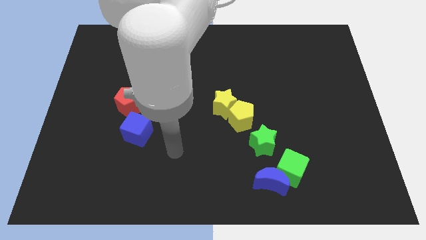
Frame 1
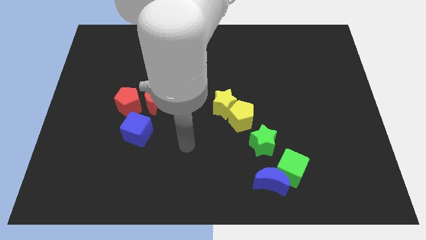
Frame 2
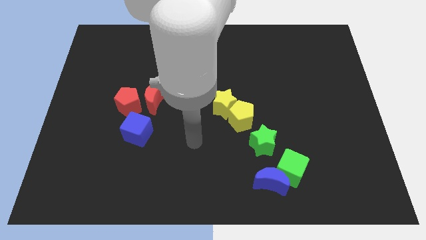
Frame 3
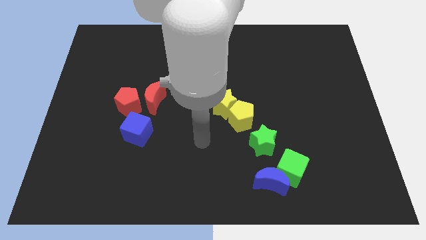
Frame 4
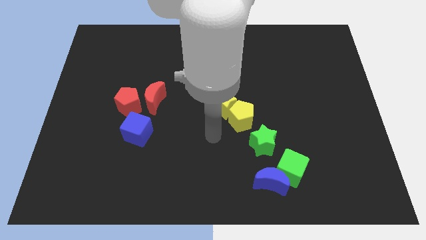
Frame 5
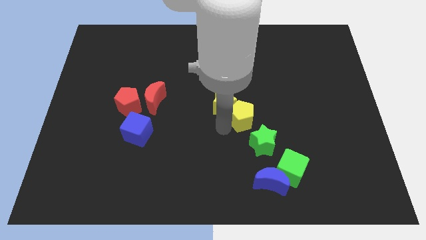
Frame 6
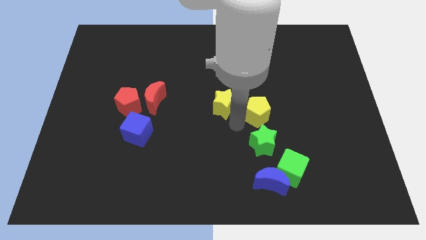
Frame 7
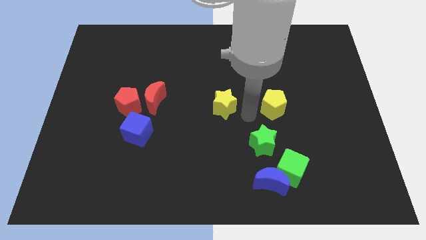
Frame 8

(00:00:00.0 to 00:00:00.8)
pull the yellow star apart from the yellow pentagon

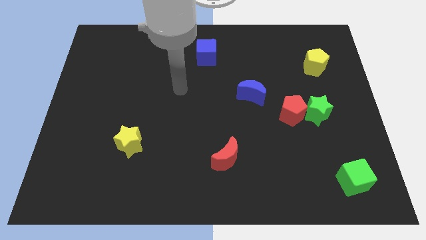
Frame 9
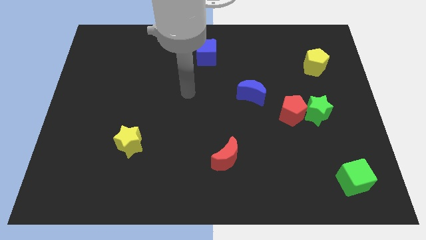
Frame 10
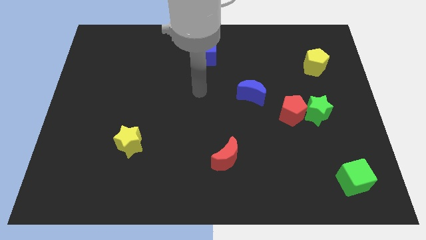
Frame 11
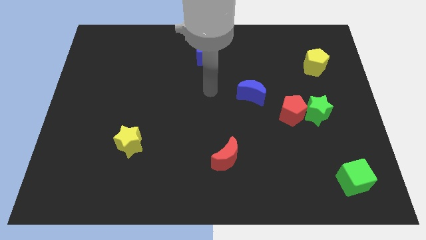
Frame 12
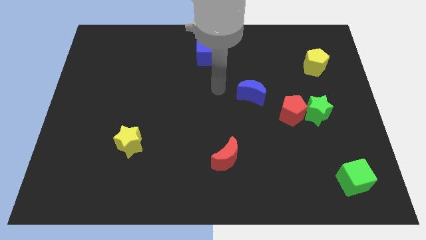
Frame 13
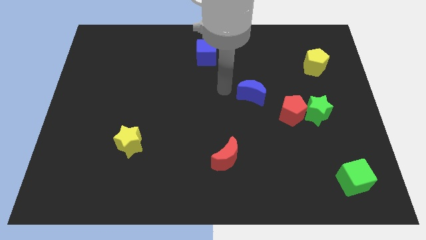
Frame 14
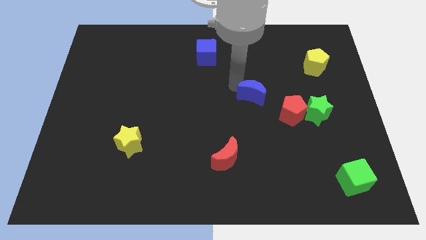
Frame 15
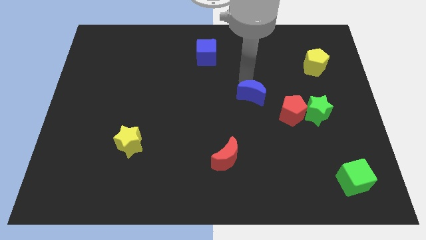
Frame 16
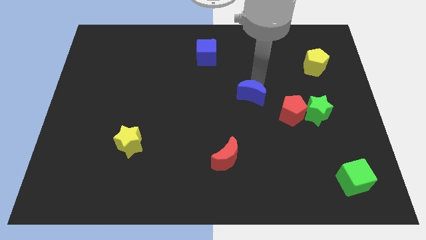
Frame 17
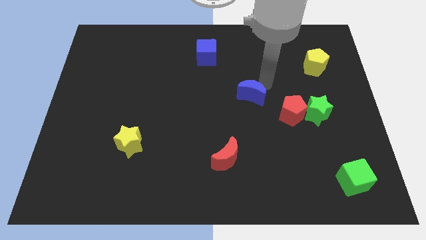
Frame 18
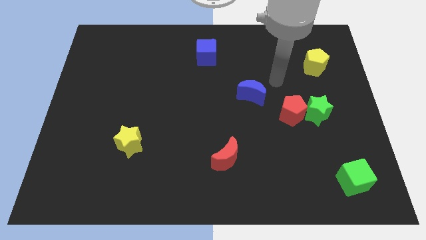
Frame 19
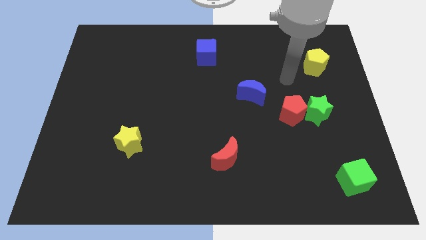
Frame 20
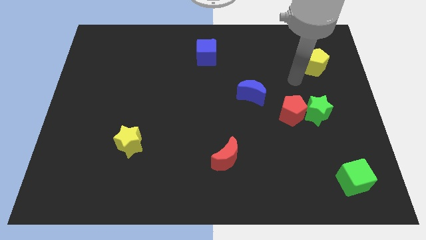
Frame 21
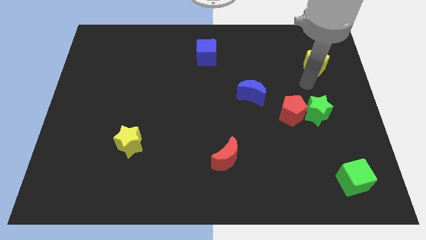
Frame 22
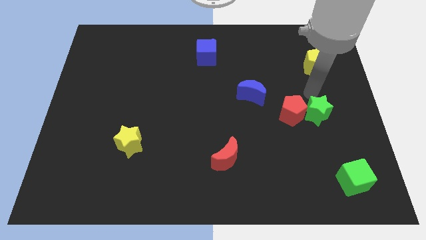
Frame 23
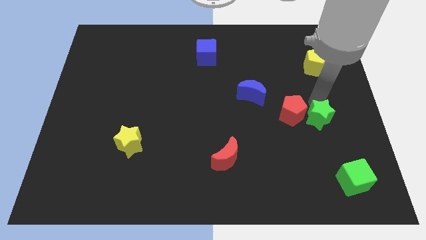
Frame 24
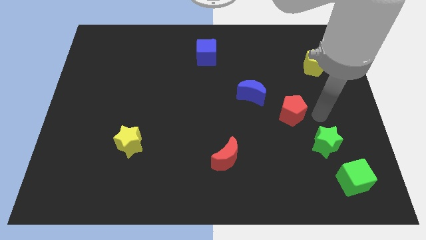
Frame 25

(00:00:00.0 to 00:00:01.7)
separate the red pentagon from the green star

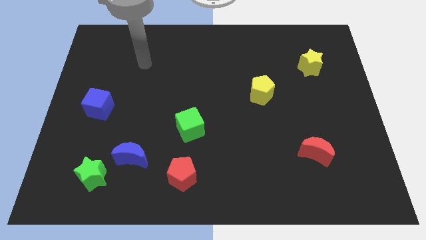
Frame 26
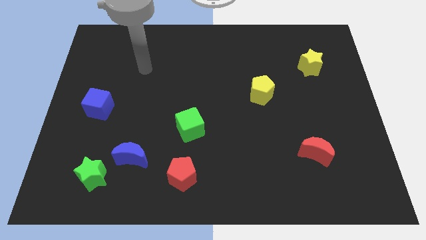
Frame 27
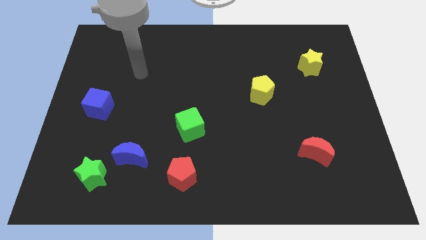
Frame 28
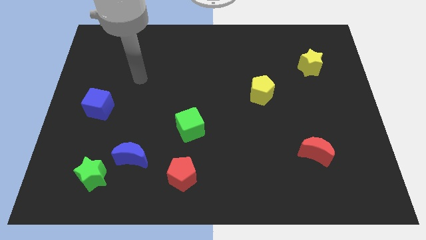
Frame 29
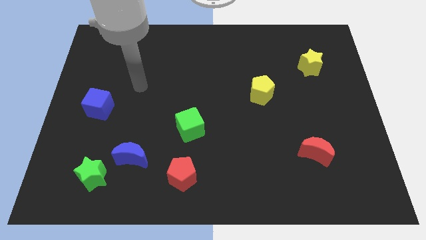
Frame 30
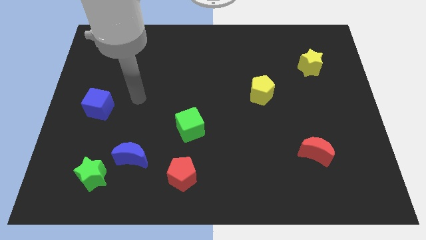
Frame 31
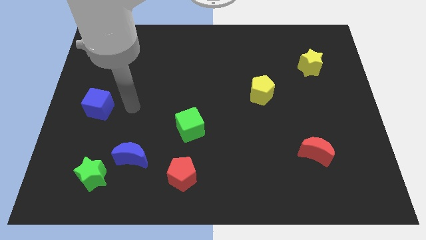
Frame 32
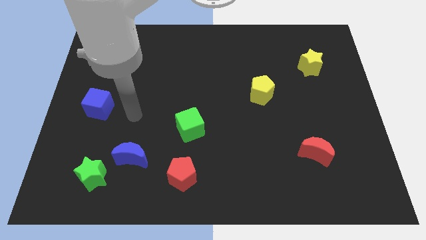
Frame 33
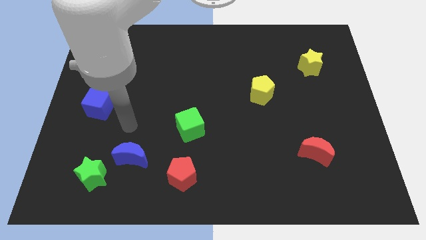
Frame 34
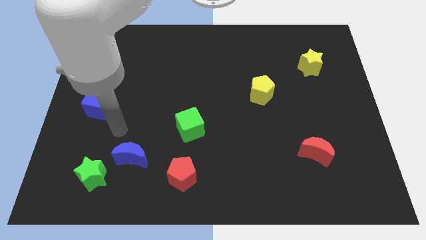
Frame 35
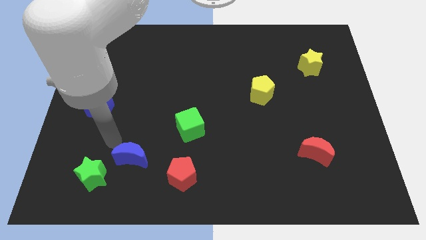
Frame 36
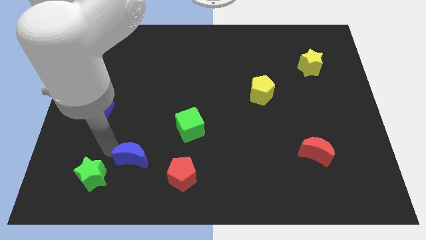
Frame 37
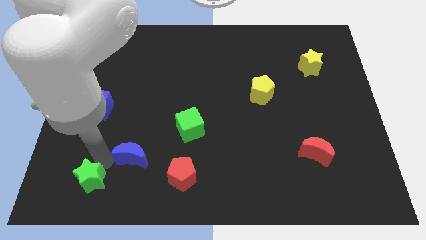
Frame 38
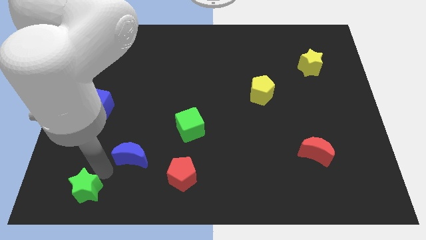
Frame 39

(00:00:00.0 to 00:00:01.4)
pull the blue moon apart from the green star

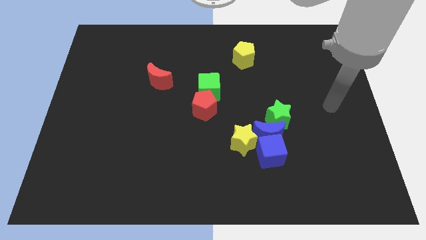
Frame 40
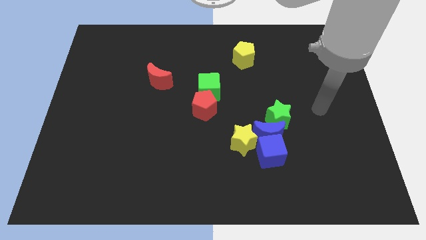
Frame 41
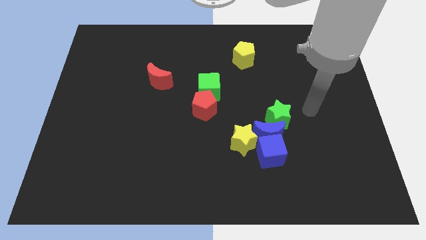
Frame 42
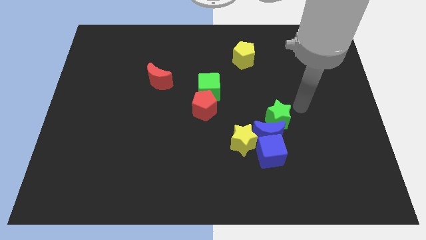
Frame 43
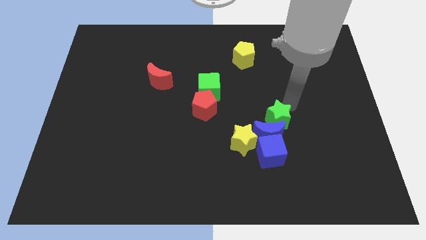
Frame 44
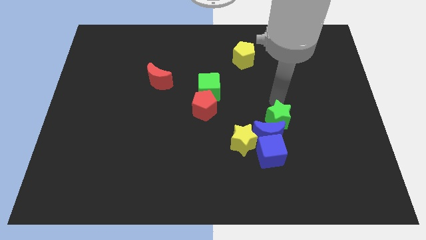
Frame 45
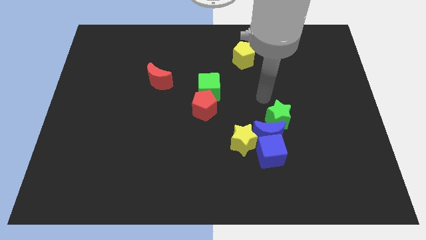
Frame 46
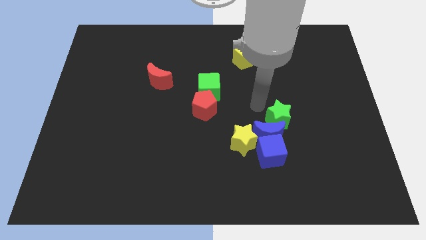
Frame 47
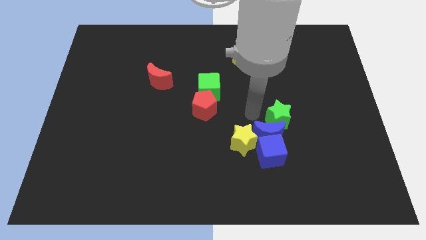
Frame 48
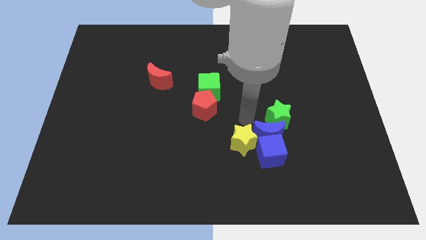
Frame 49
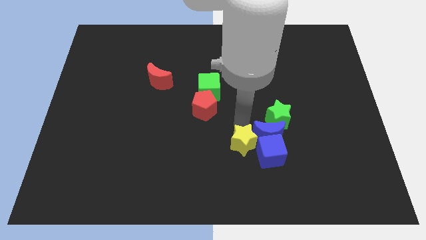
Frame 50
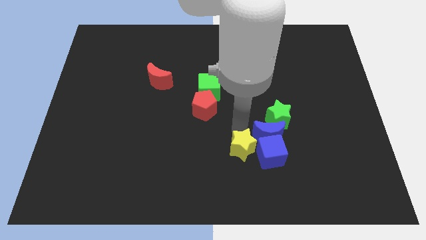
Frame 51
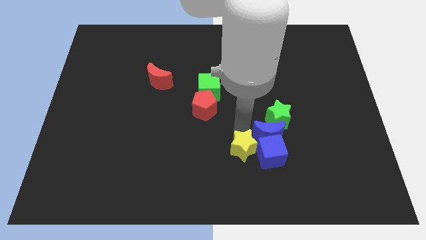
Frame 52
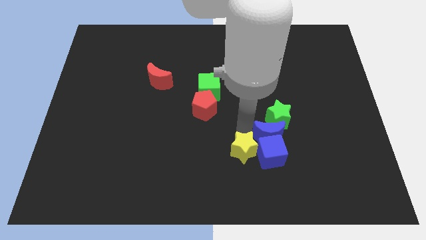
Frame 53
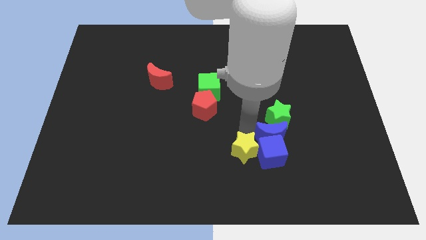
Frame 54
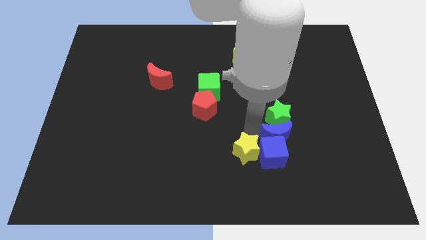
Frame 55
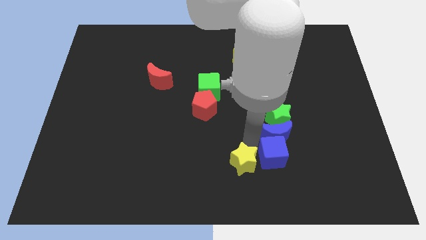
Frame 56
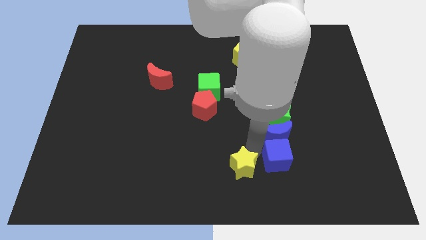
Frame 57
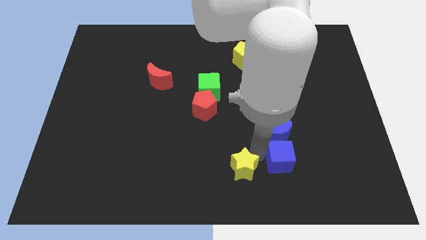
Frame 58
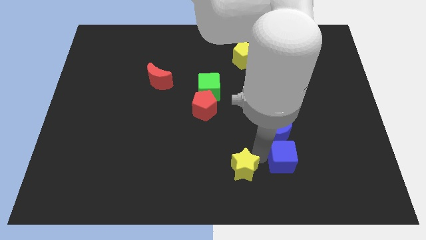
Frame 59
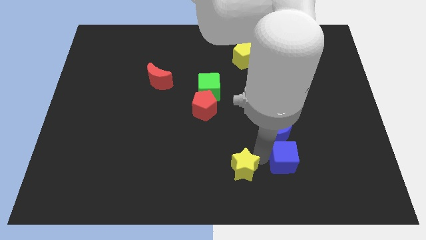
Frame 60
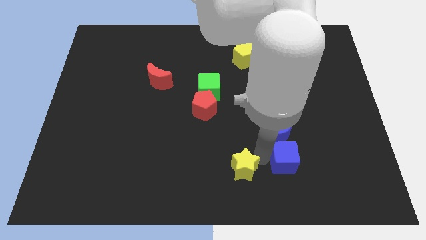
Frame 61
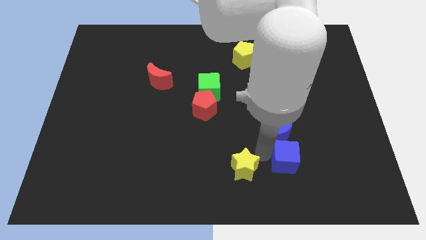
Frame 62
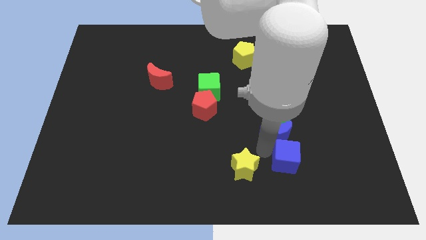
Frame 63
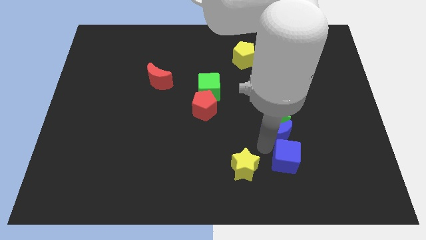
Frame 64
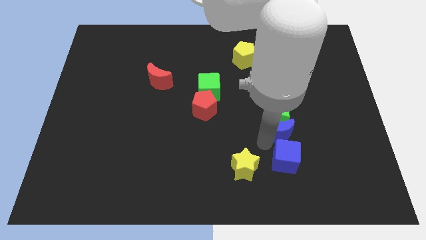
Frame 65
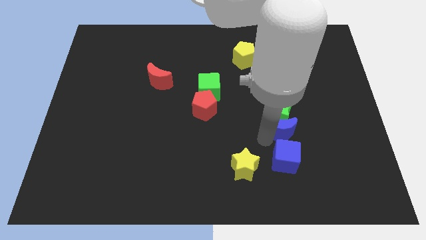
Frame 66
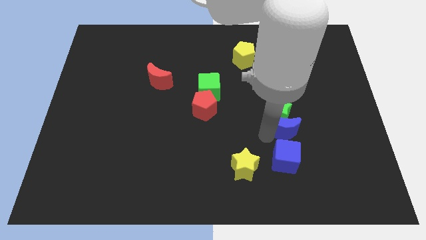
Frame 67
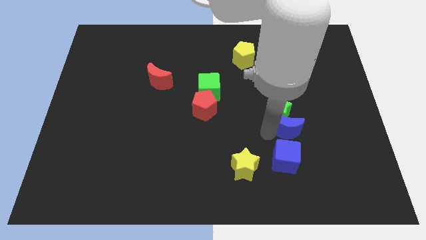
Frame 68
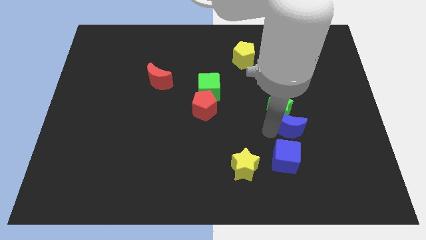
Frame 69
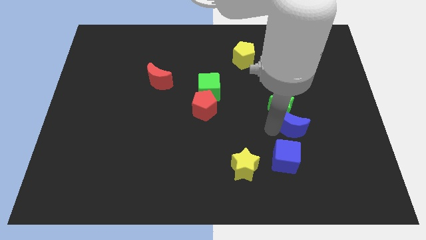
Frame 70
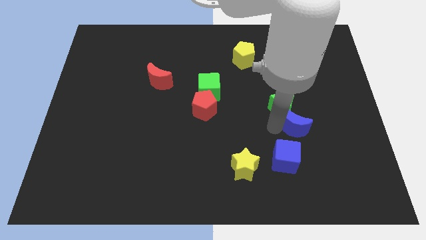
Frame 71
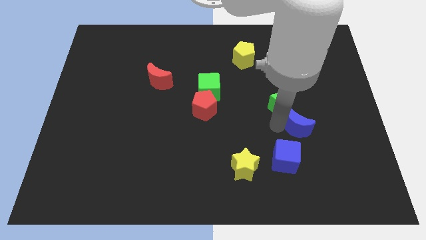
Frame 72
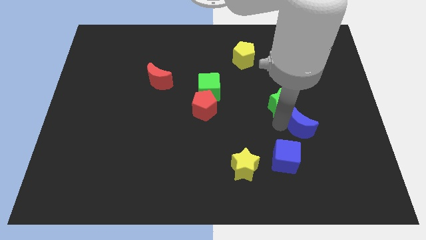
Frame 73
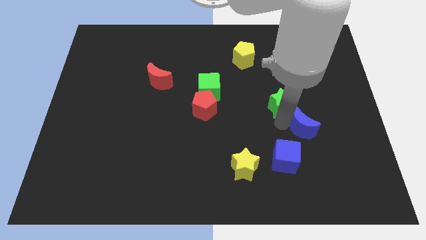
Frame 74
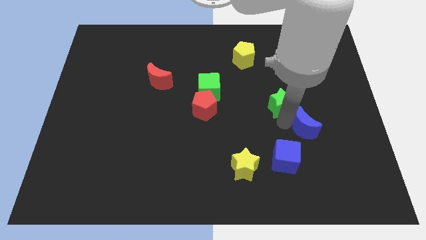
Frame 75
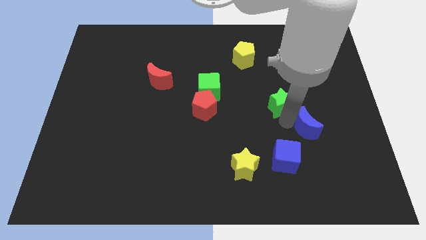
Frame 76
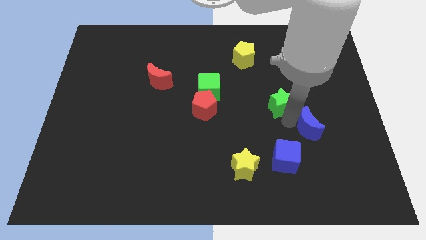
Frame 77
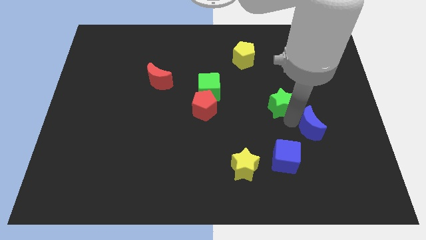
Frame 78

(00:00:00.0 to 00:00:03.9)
pull the blue moon apart from the group

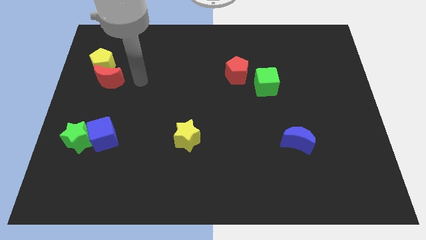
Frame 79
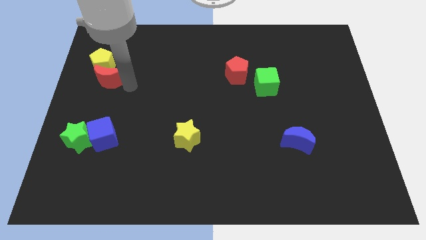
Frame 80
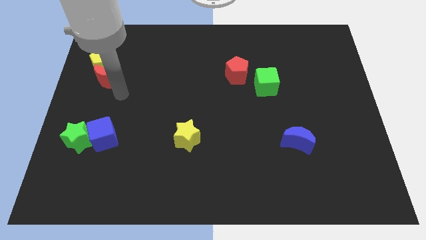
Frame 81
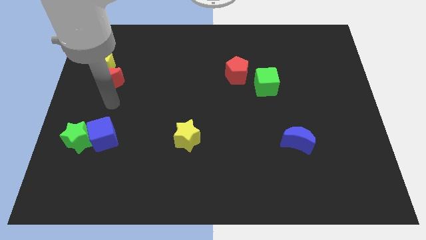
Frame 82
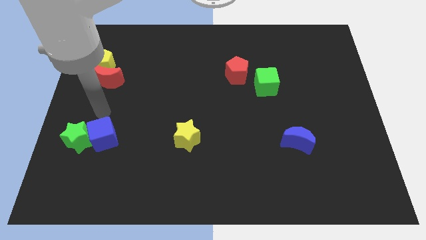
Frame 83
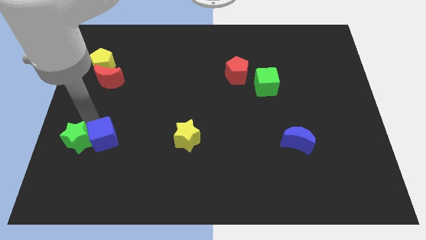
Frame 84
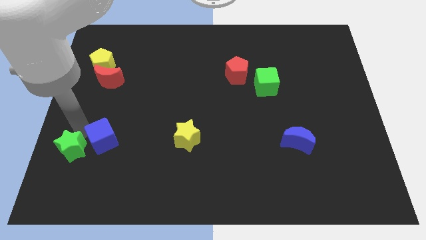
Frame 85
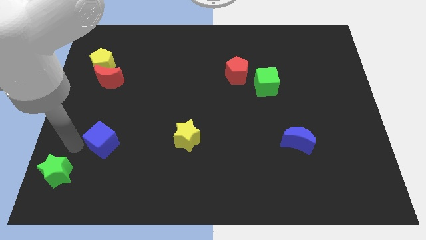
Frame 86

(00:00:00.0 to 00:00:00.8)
pull the blue cube apart from the green star

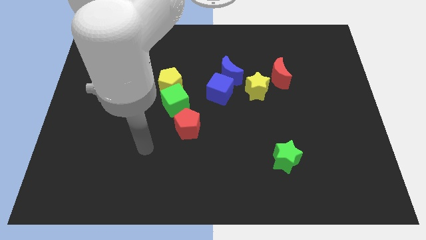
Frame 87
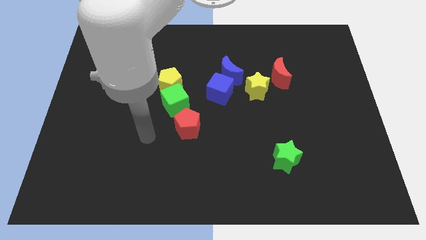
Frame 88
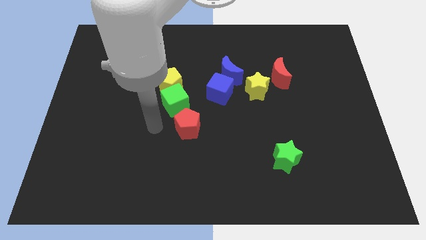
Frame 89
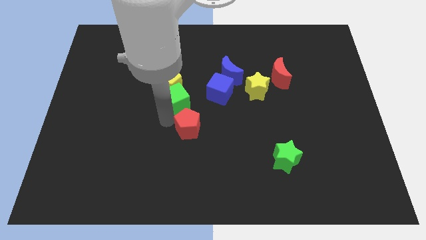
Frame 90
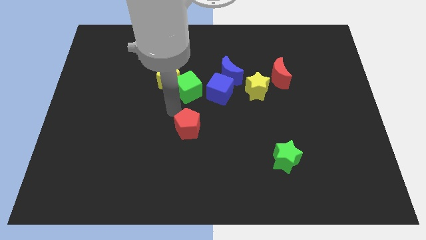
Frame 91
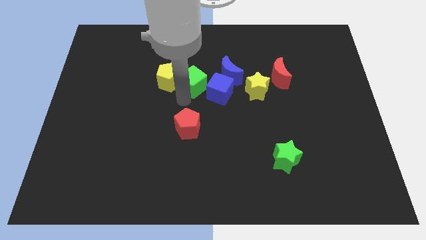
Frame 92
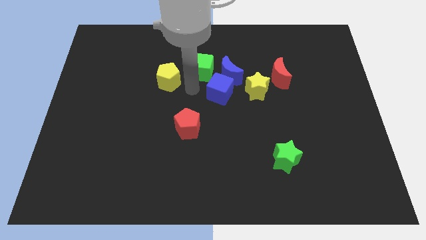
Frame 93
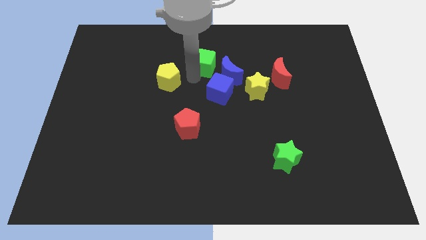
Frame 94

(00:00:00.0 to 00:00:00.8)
pull the yellow pentagon apart from the green cube
